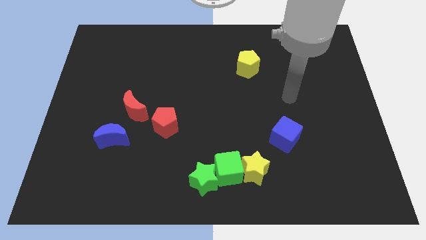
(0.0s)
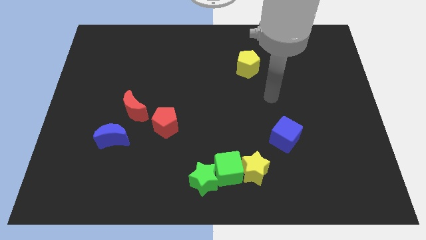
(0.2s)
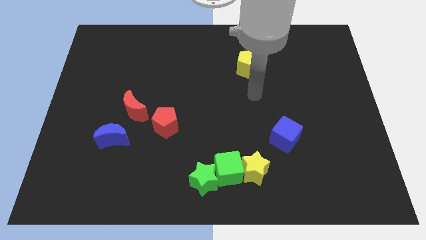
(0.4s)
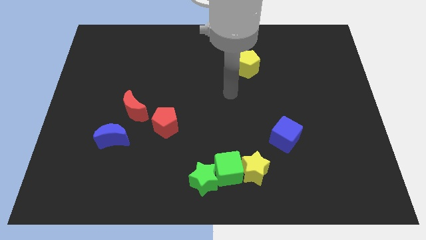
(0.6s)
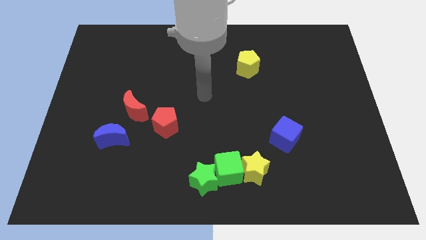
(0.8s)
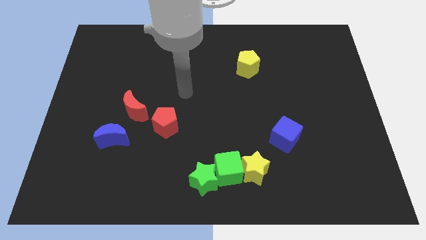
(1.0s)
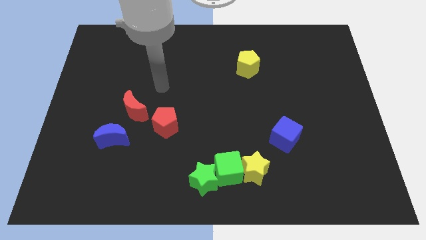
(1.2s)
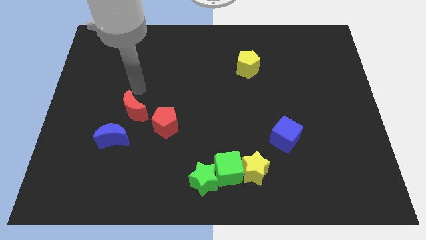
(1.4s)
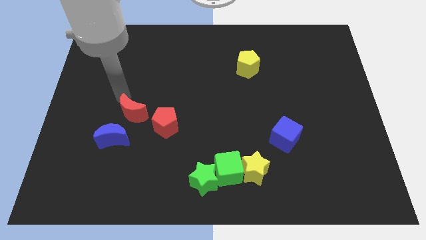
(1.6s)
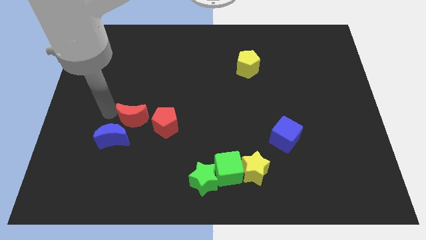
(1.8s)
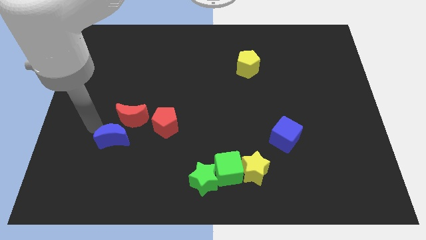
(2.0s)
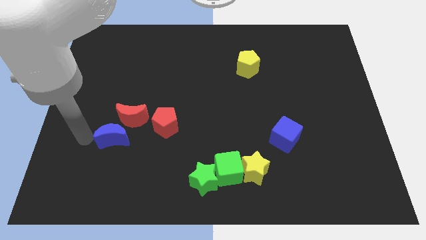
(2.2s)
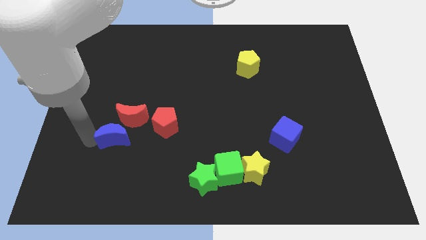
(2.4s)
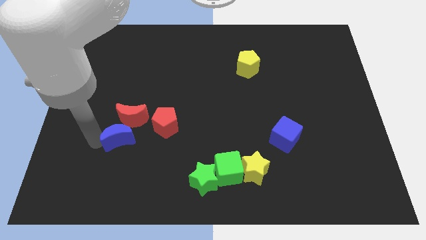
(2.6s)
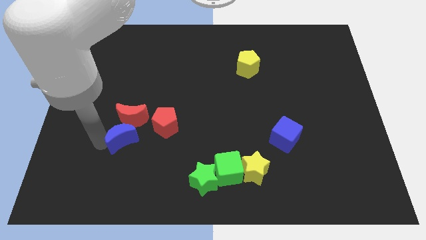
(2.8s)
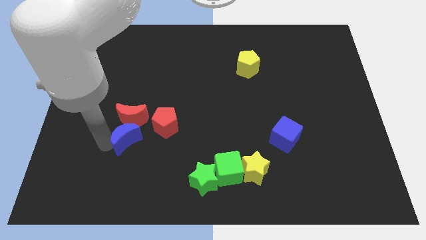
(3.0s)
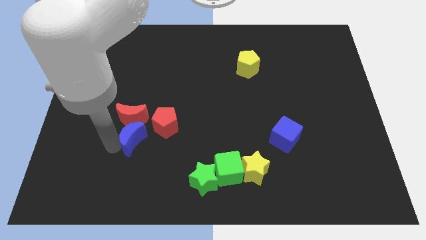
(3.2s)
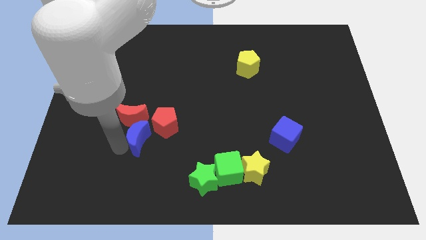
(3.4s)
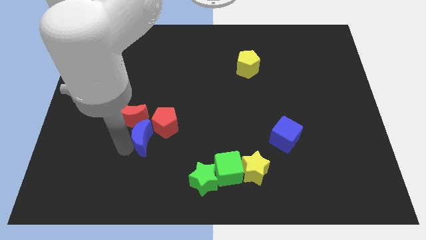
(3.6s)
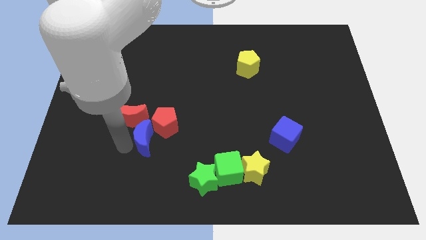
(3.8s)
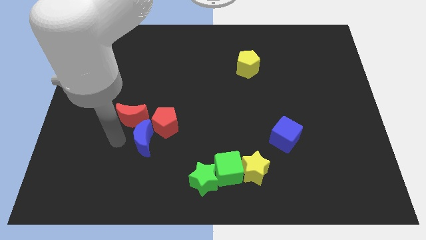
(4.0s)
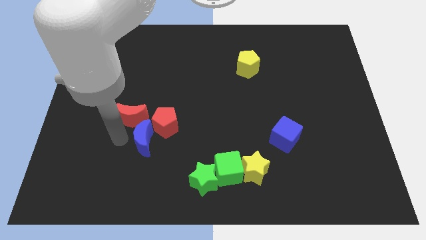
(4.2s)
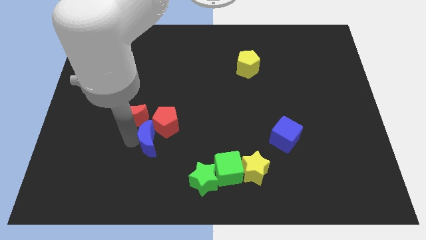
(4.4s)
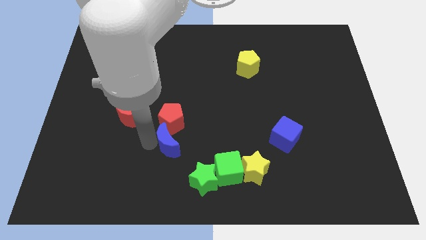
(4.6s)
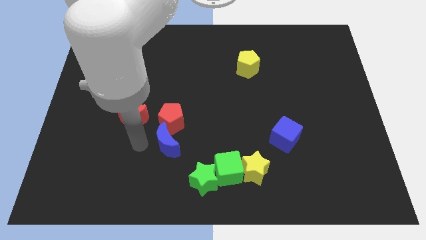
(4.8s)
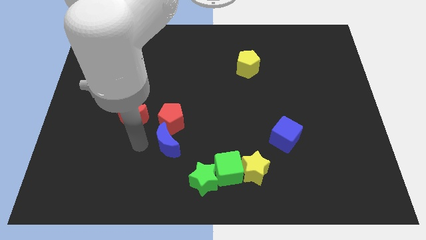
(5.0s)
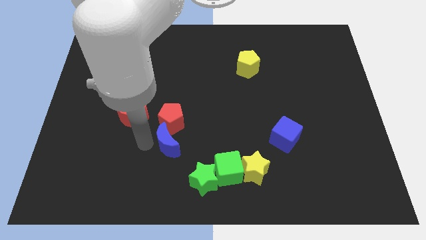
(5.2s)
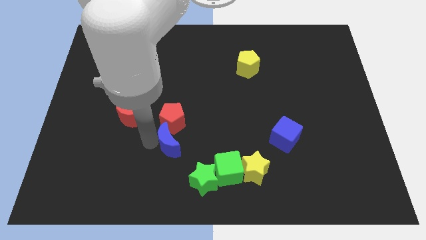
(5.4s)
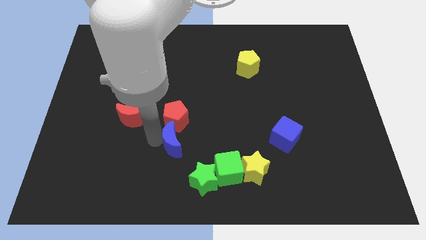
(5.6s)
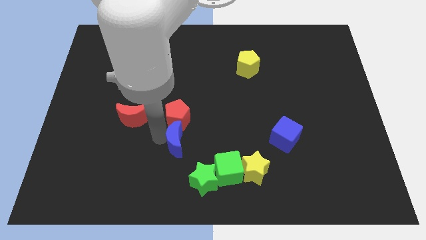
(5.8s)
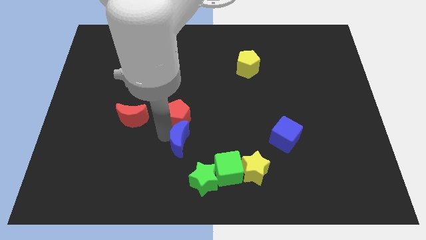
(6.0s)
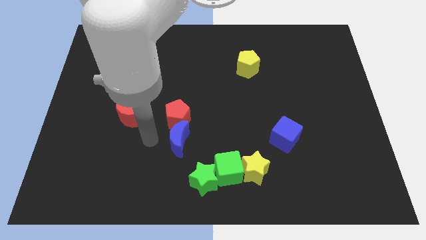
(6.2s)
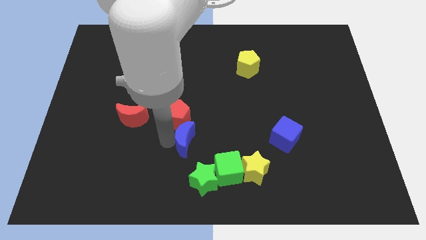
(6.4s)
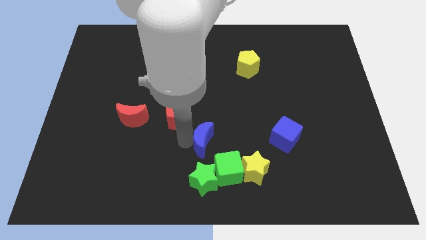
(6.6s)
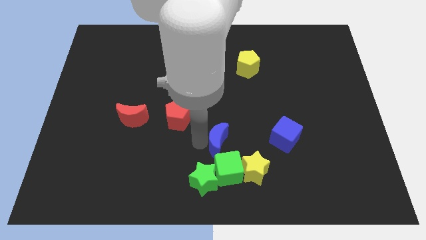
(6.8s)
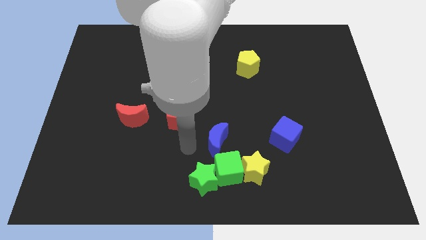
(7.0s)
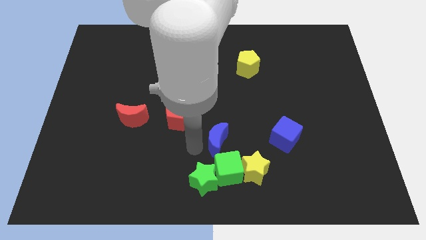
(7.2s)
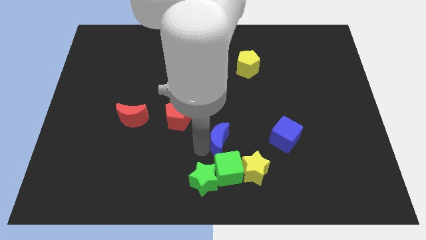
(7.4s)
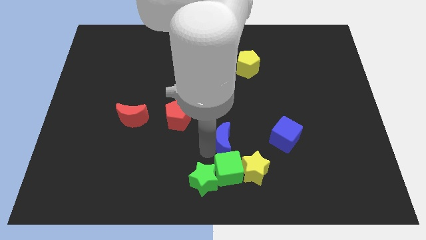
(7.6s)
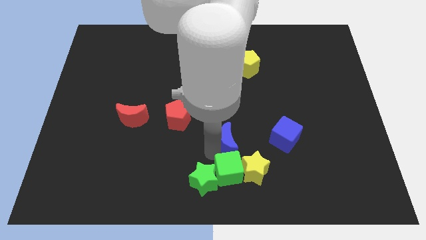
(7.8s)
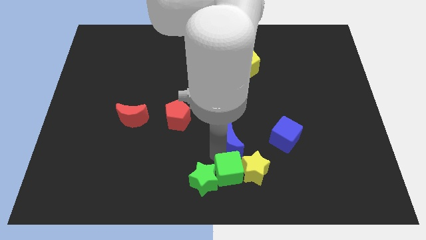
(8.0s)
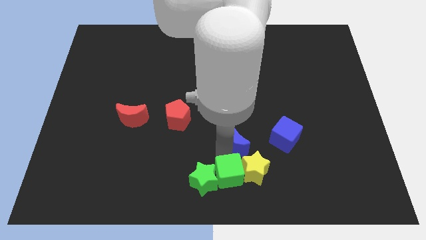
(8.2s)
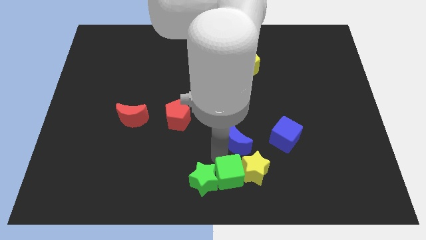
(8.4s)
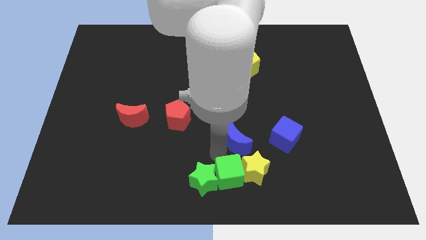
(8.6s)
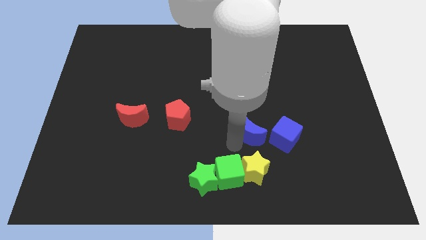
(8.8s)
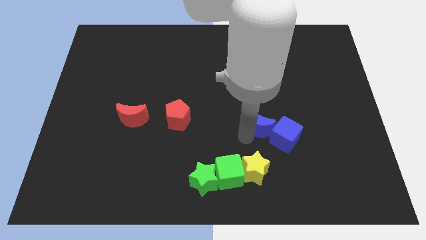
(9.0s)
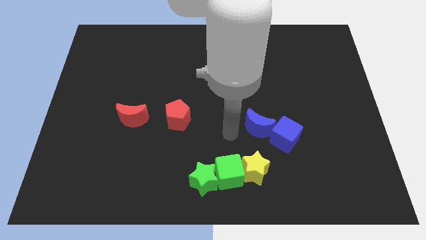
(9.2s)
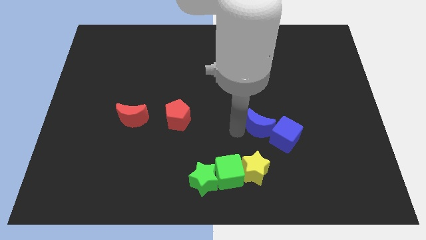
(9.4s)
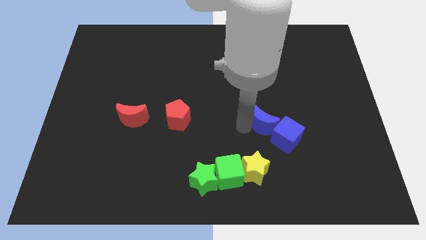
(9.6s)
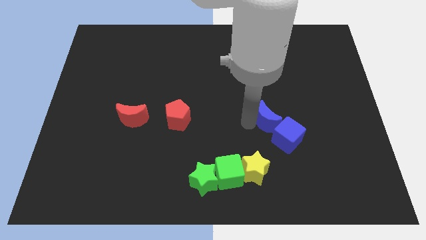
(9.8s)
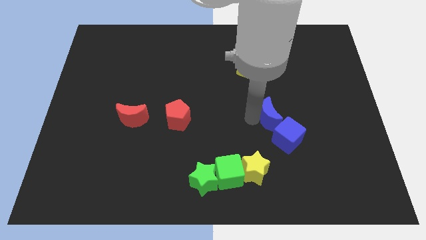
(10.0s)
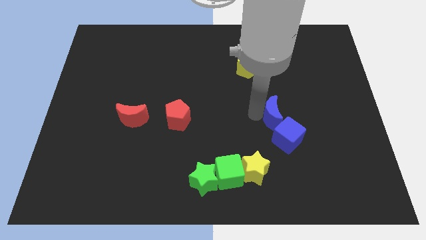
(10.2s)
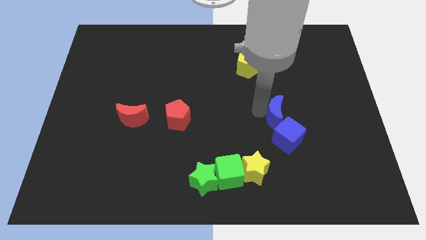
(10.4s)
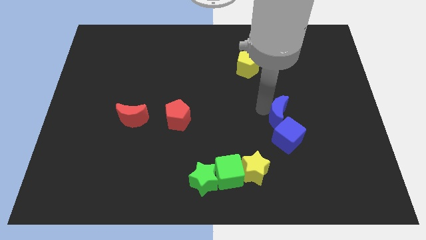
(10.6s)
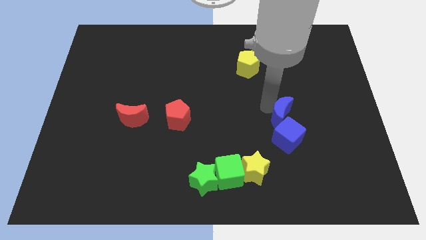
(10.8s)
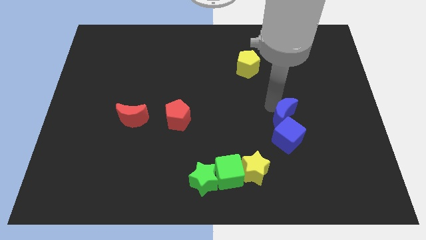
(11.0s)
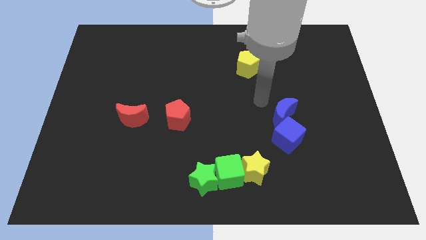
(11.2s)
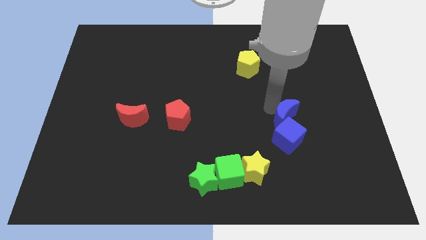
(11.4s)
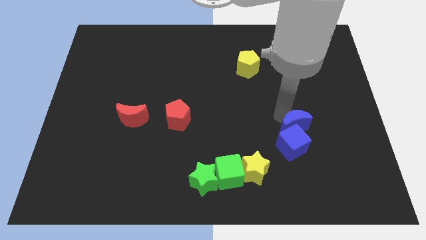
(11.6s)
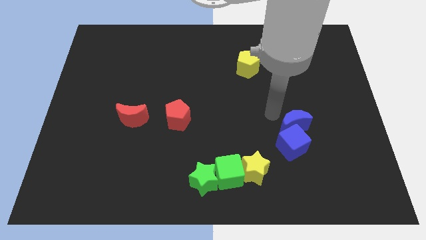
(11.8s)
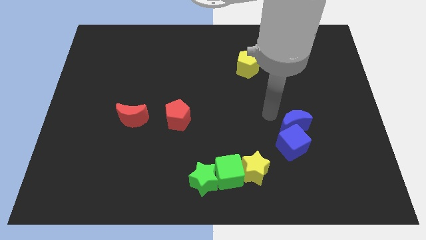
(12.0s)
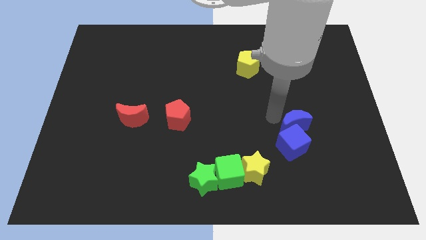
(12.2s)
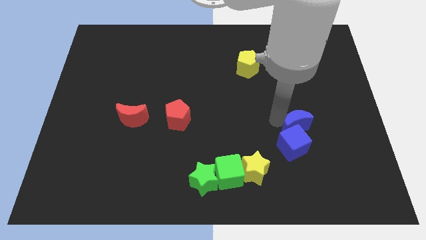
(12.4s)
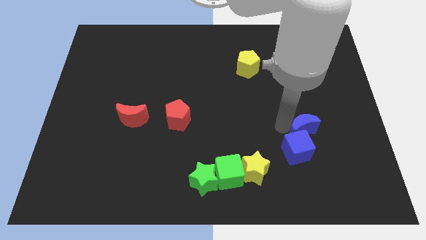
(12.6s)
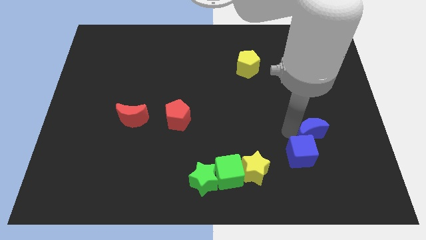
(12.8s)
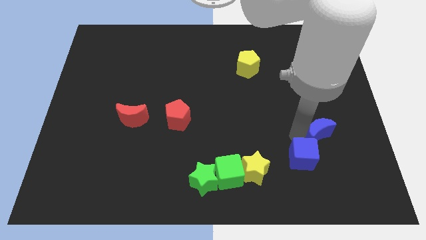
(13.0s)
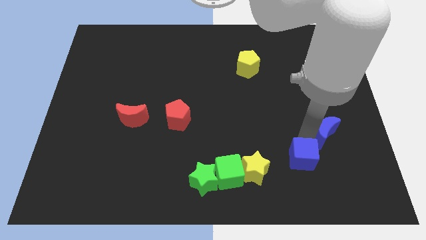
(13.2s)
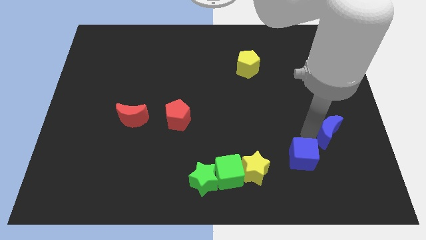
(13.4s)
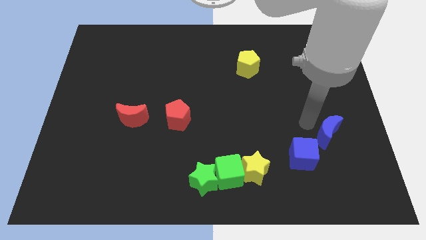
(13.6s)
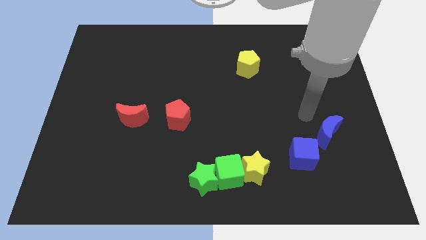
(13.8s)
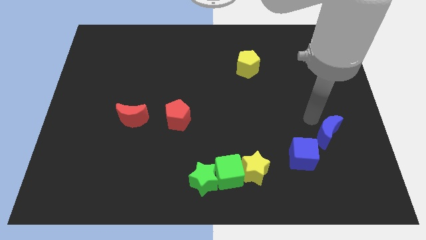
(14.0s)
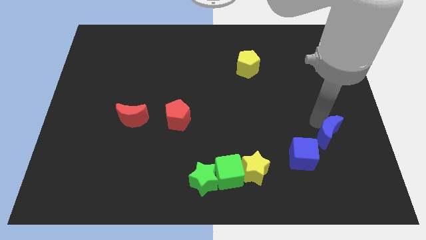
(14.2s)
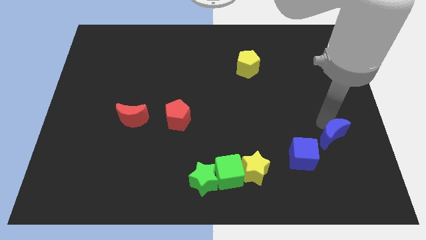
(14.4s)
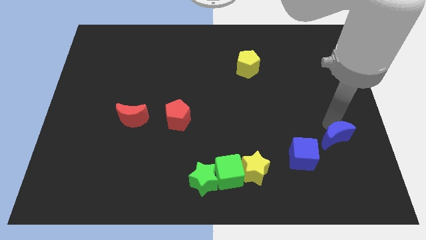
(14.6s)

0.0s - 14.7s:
slide the blue moon just right of the blue cube

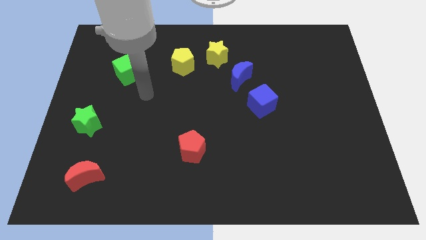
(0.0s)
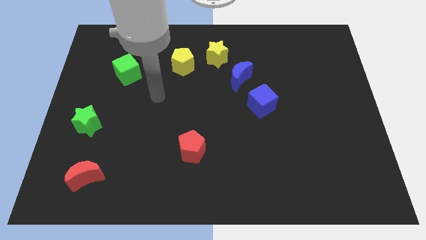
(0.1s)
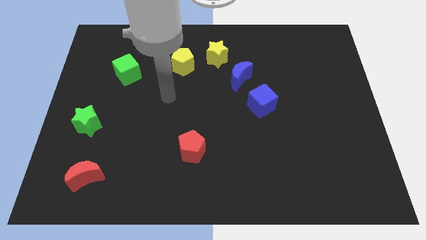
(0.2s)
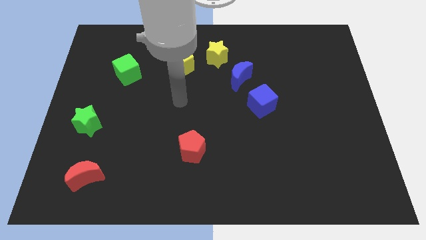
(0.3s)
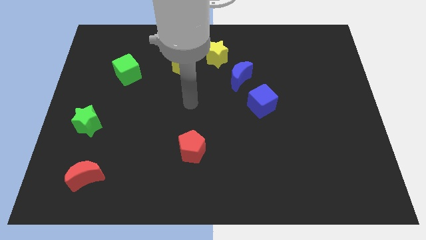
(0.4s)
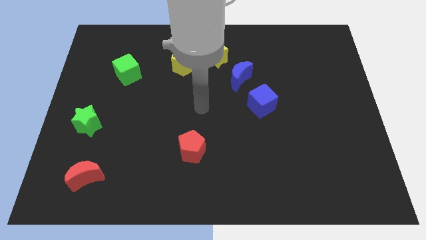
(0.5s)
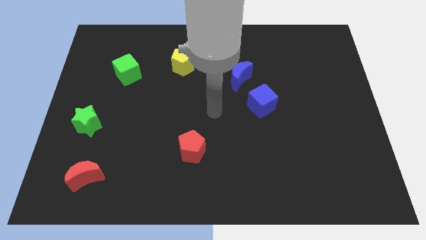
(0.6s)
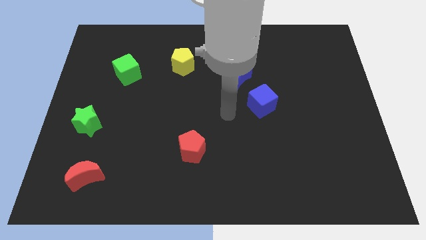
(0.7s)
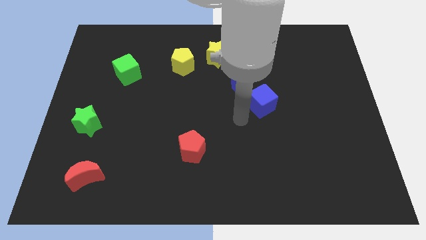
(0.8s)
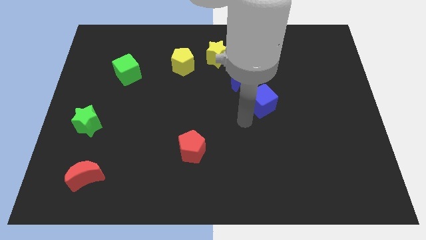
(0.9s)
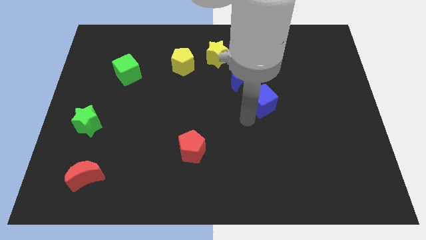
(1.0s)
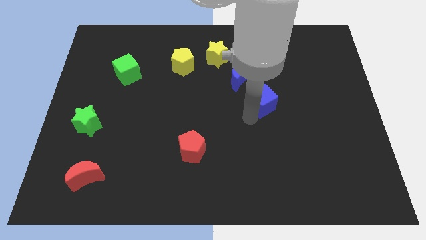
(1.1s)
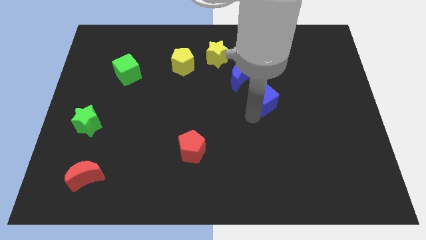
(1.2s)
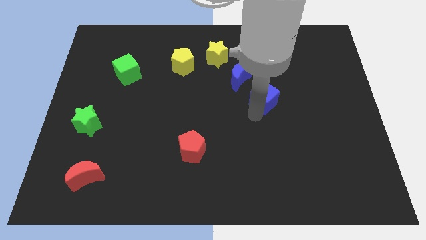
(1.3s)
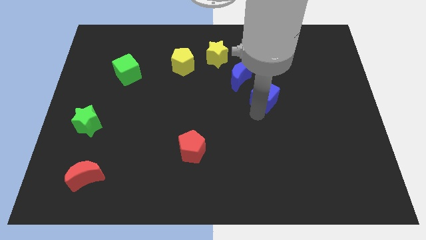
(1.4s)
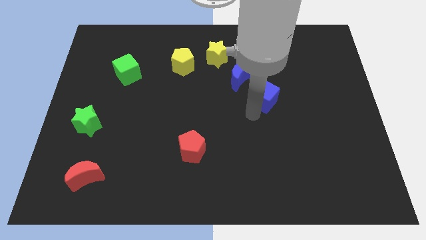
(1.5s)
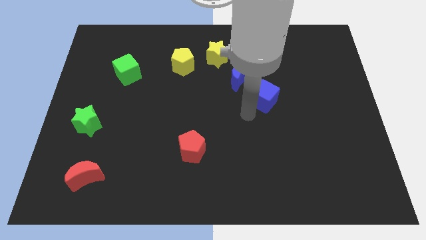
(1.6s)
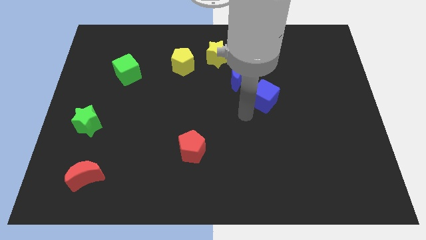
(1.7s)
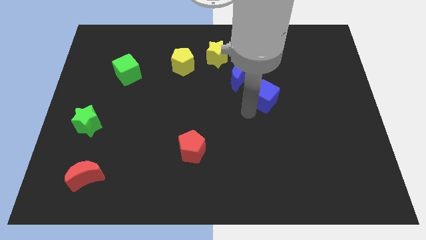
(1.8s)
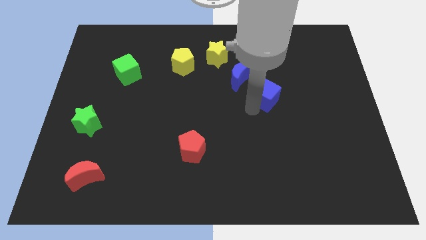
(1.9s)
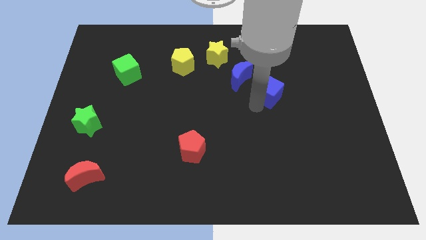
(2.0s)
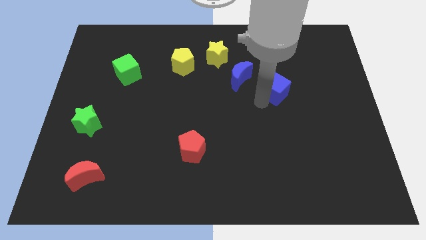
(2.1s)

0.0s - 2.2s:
move the blue cube right of the blue moon
